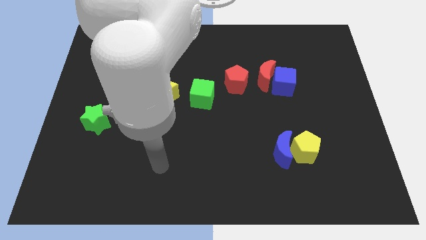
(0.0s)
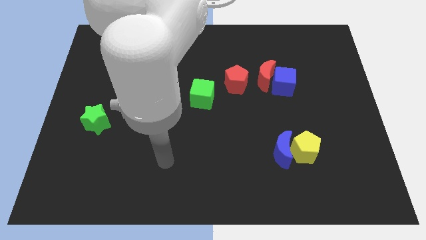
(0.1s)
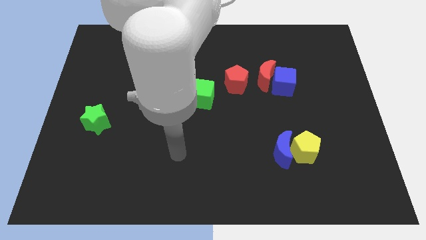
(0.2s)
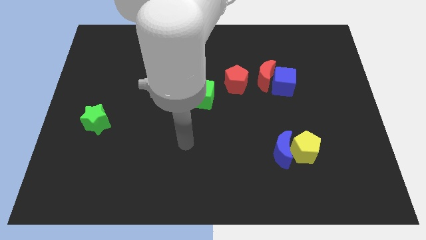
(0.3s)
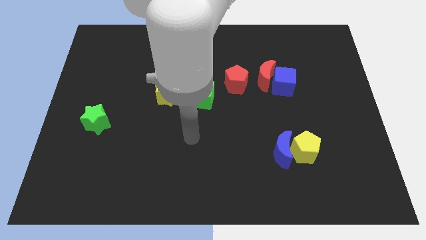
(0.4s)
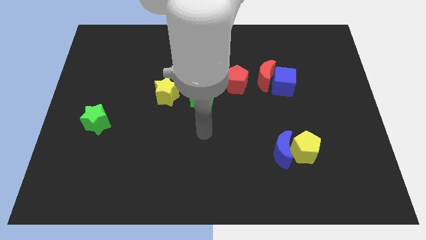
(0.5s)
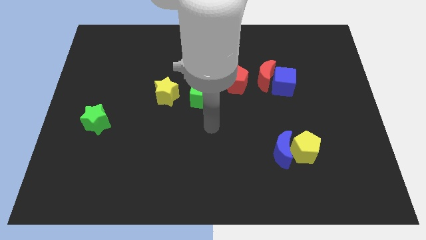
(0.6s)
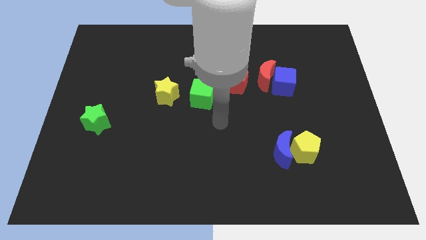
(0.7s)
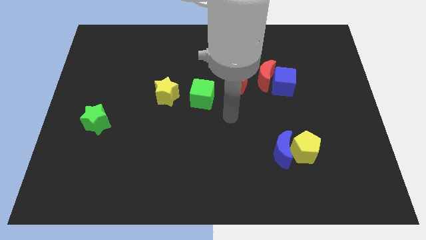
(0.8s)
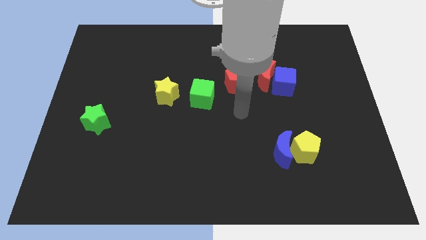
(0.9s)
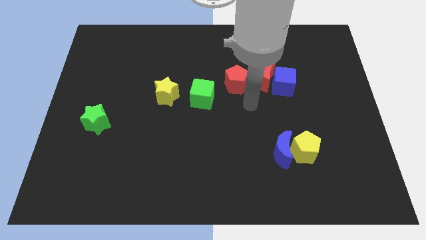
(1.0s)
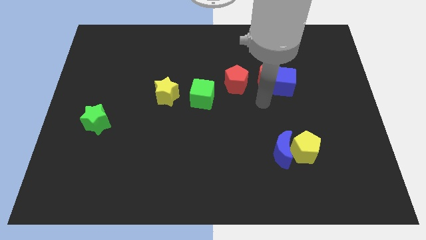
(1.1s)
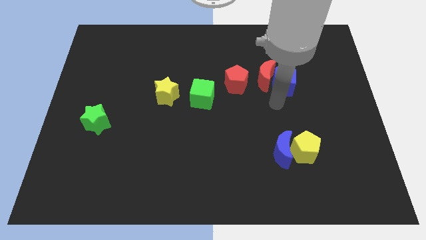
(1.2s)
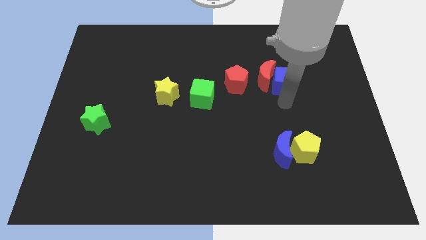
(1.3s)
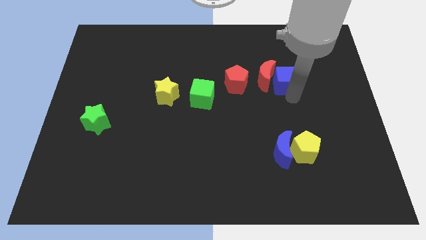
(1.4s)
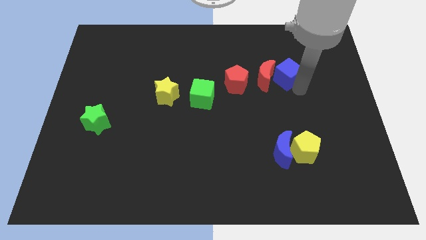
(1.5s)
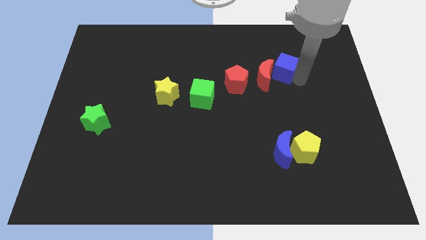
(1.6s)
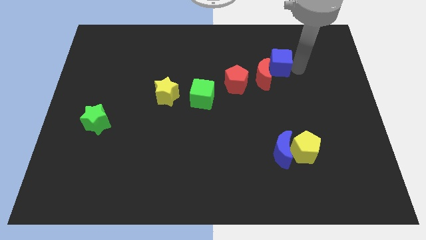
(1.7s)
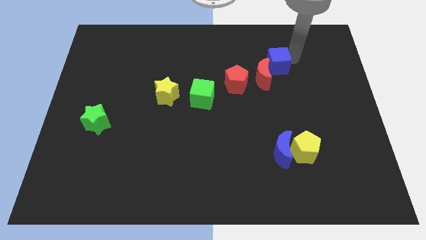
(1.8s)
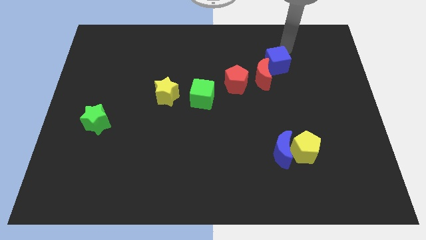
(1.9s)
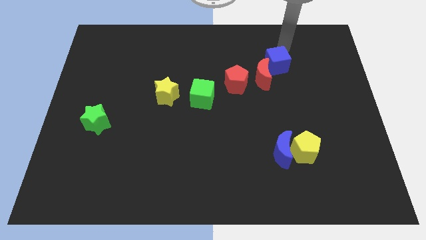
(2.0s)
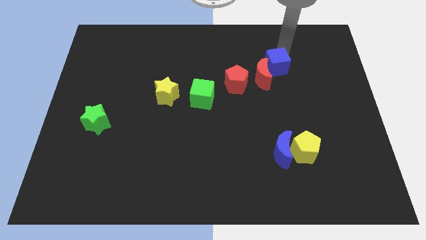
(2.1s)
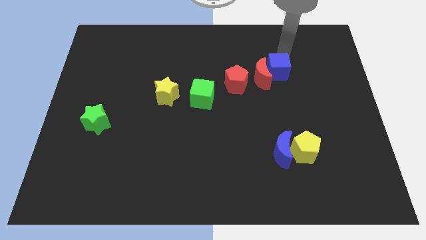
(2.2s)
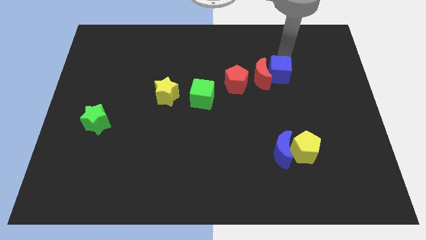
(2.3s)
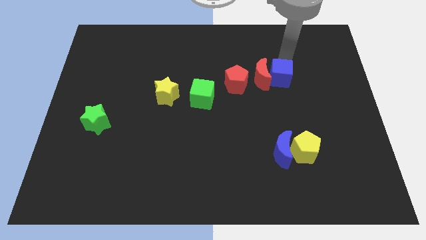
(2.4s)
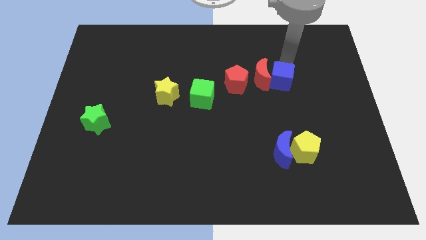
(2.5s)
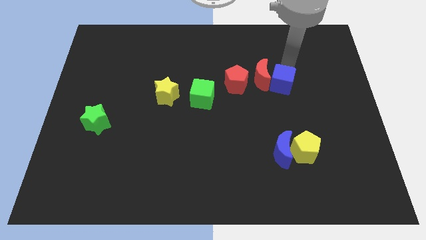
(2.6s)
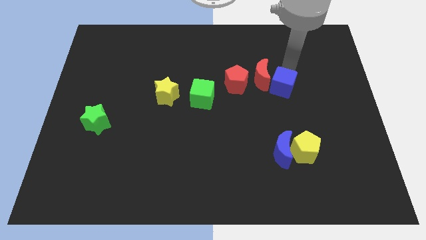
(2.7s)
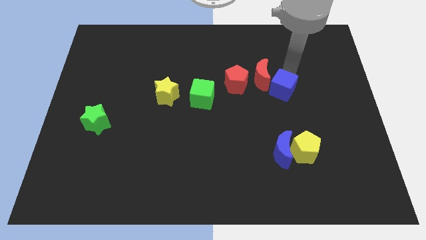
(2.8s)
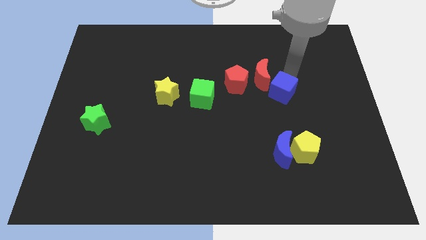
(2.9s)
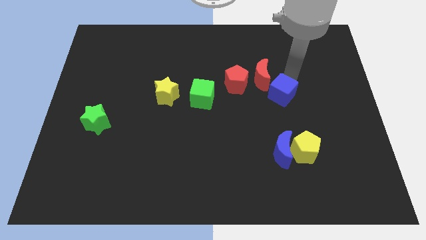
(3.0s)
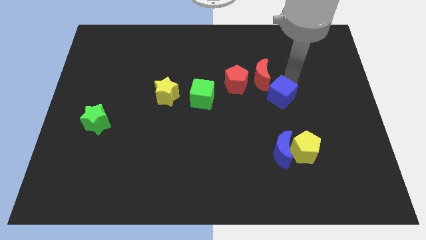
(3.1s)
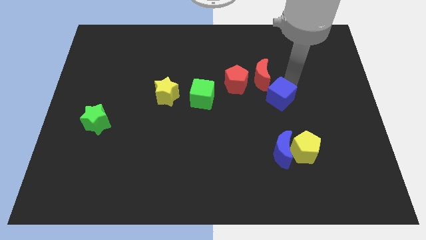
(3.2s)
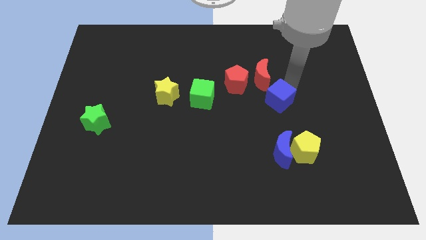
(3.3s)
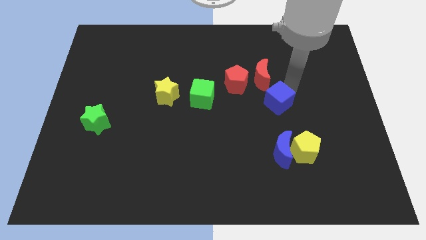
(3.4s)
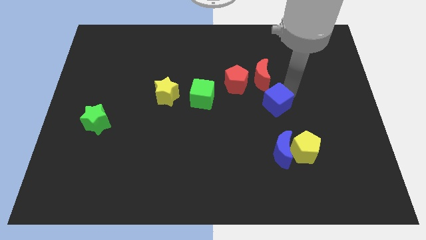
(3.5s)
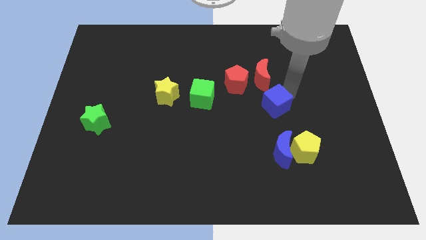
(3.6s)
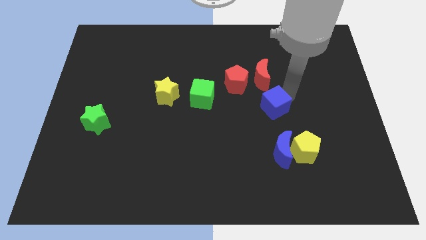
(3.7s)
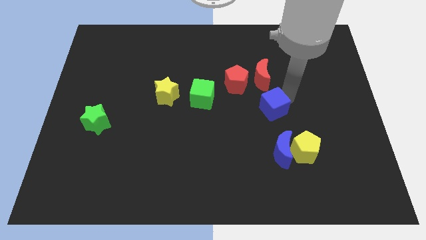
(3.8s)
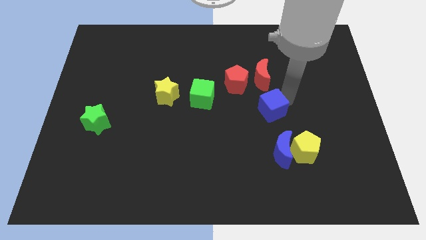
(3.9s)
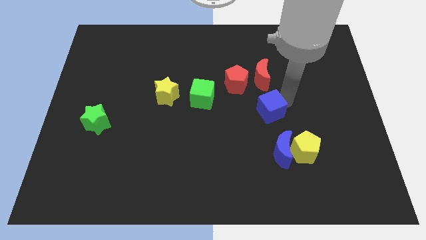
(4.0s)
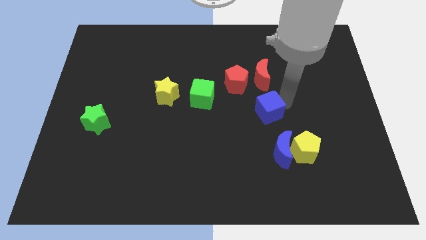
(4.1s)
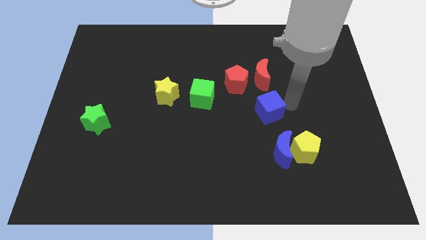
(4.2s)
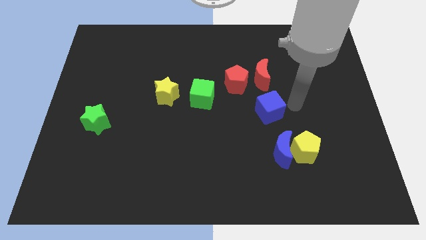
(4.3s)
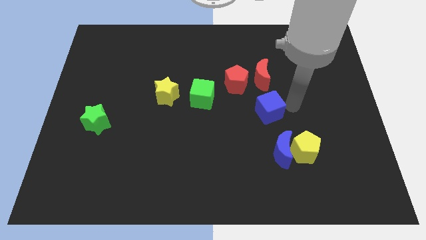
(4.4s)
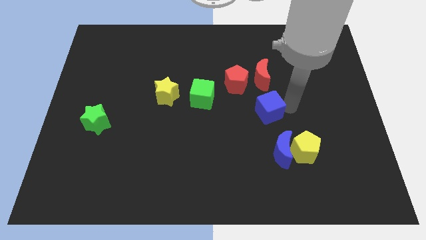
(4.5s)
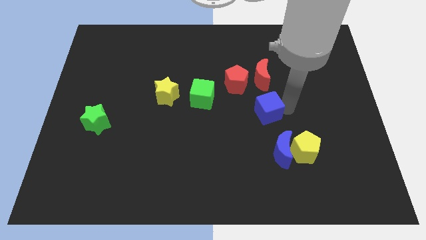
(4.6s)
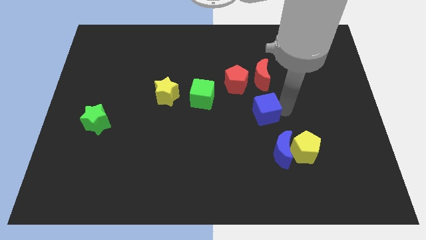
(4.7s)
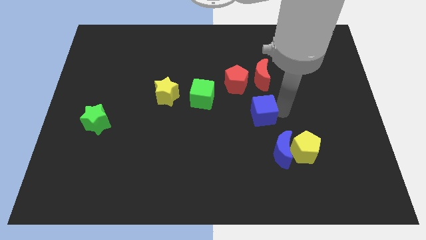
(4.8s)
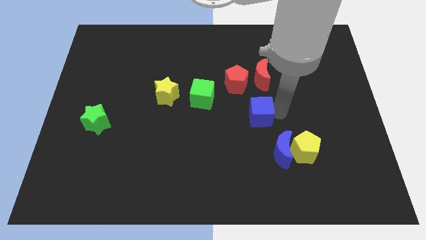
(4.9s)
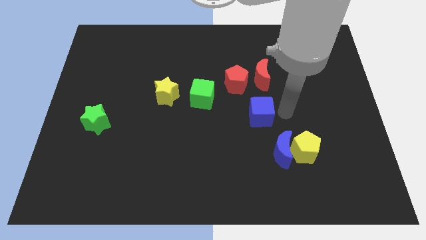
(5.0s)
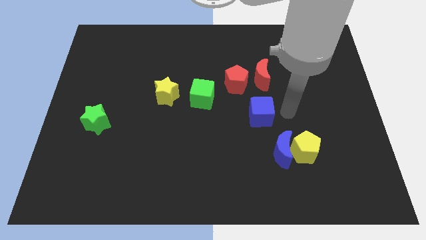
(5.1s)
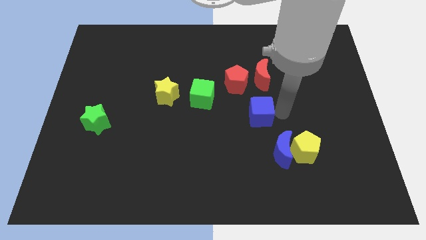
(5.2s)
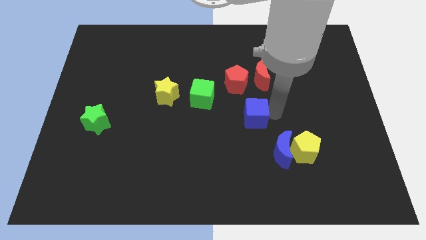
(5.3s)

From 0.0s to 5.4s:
slide the blue cube to the bottom side of the red pentagon

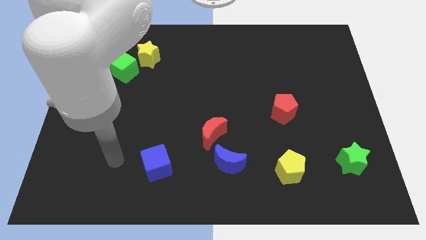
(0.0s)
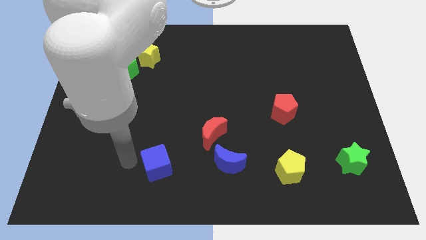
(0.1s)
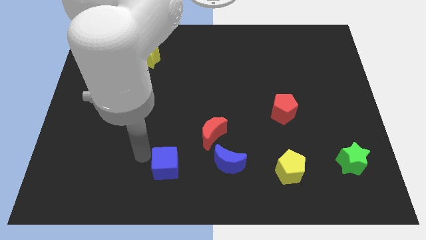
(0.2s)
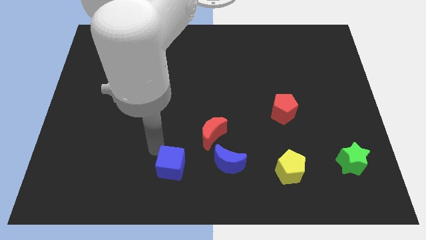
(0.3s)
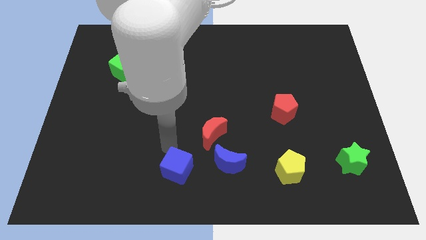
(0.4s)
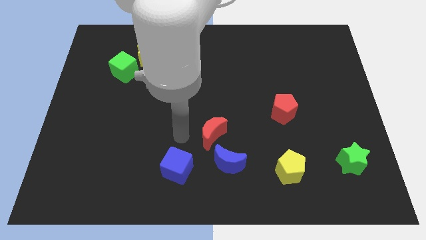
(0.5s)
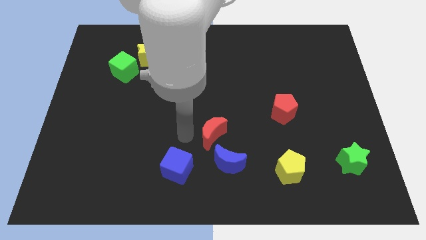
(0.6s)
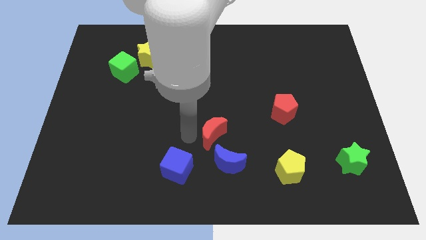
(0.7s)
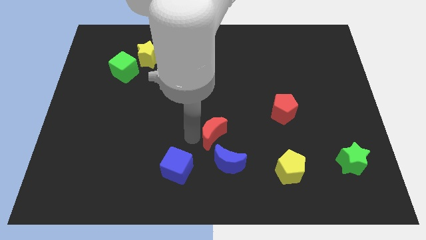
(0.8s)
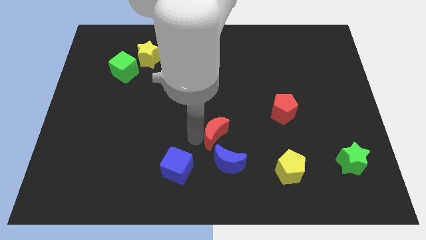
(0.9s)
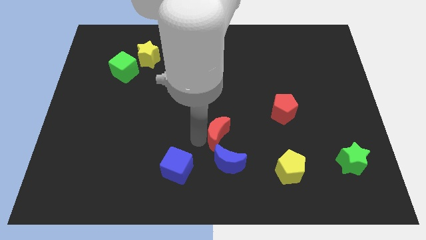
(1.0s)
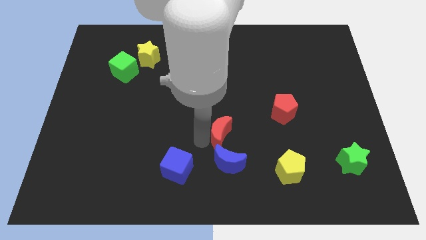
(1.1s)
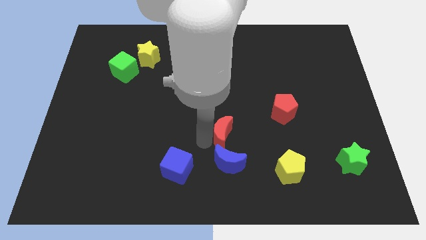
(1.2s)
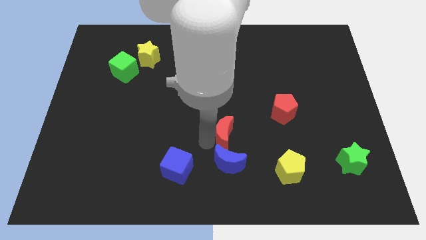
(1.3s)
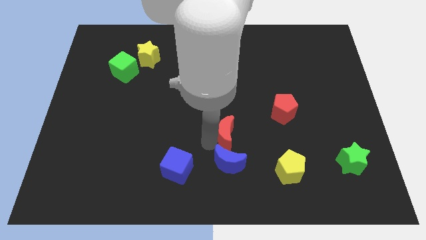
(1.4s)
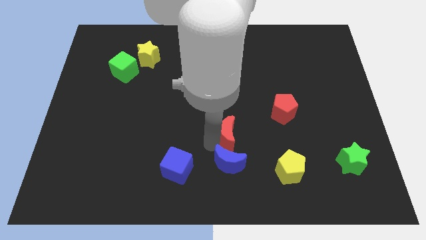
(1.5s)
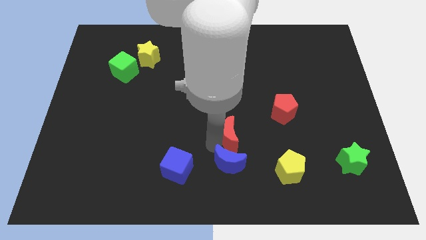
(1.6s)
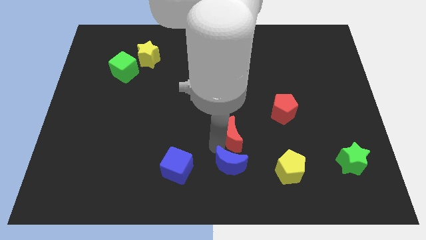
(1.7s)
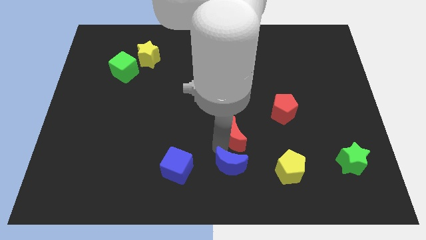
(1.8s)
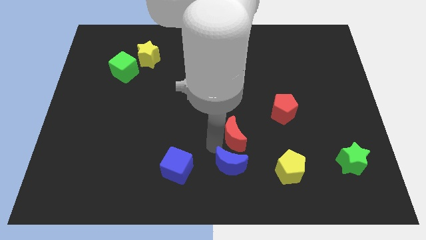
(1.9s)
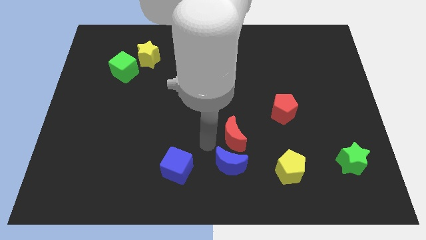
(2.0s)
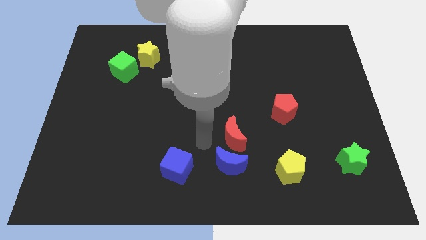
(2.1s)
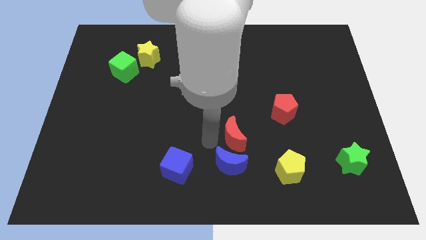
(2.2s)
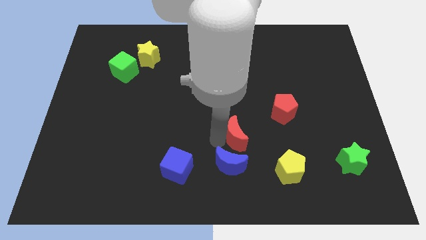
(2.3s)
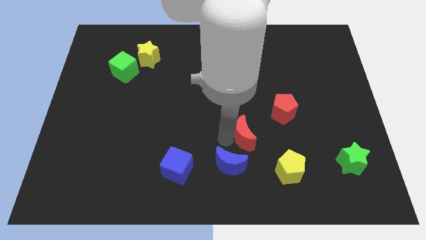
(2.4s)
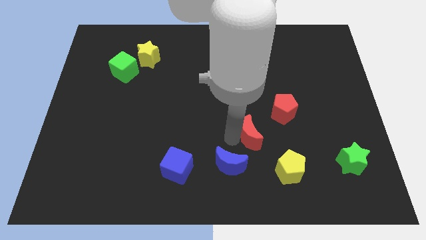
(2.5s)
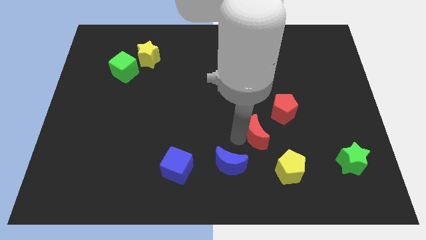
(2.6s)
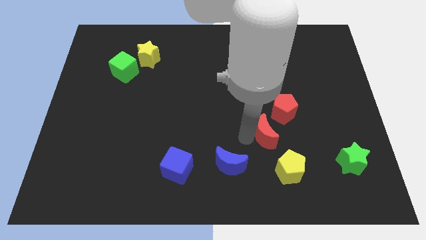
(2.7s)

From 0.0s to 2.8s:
put the red moon to the top side of the yellow pentagon
